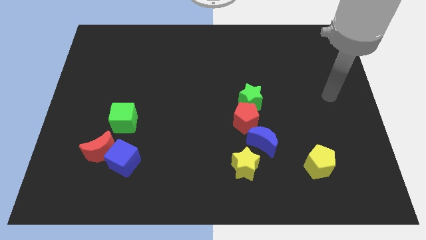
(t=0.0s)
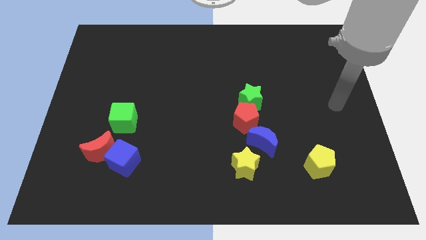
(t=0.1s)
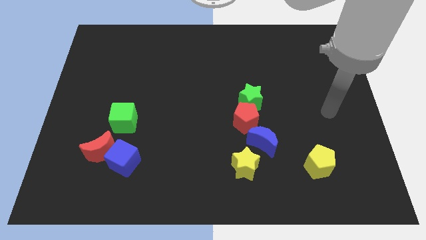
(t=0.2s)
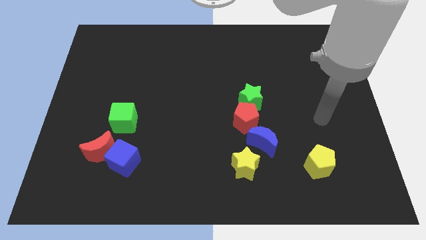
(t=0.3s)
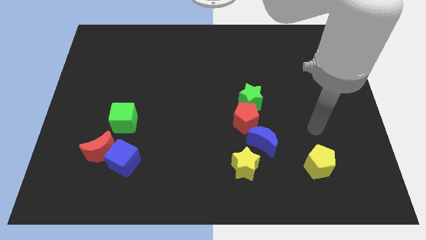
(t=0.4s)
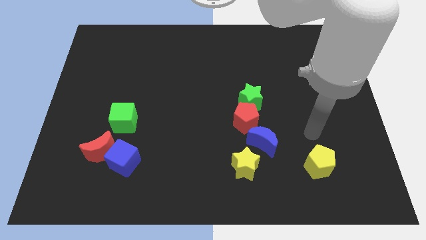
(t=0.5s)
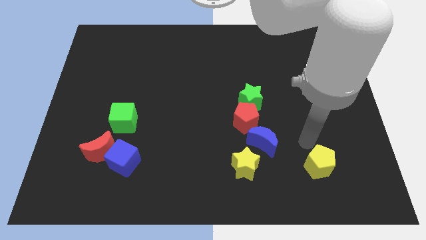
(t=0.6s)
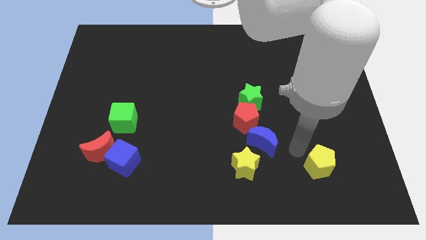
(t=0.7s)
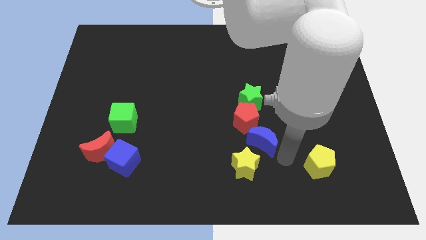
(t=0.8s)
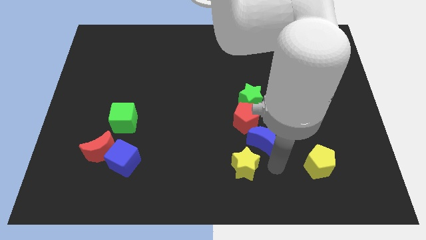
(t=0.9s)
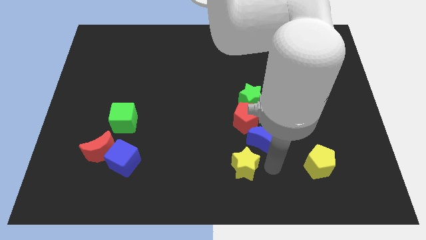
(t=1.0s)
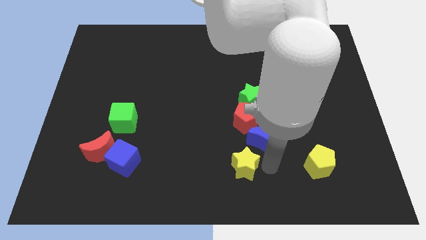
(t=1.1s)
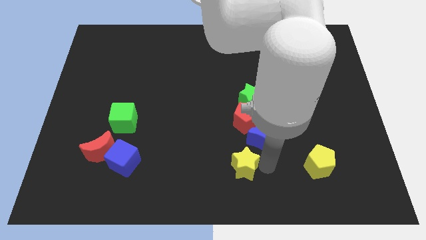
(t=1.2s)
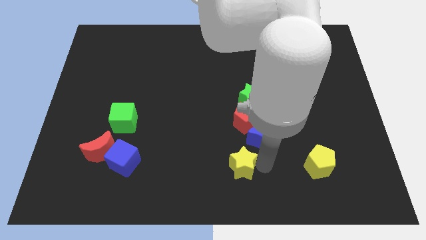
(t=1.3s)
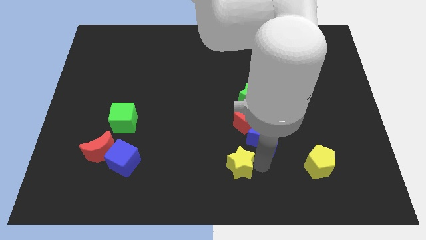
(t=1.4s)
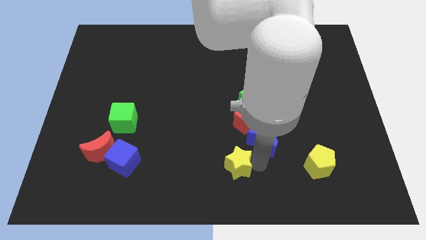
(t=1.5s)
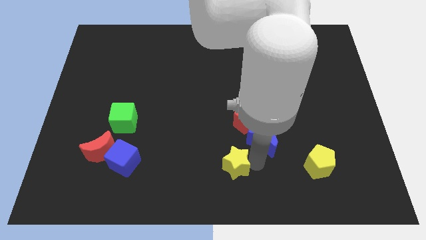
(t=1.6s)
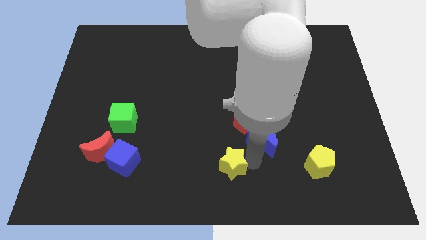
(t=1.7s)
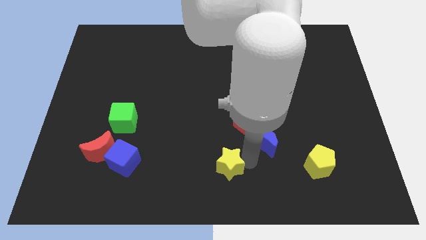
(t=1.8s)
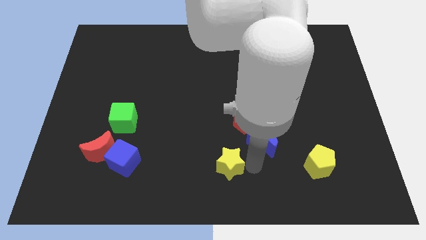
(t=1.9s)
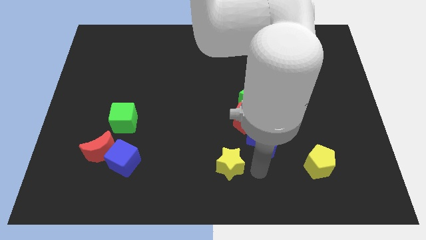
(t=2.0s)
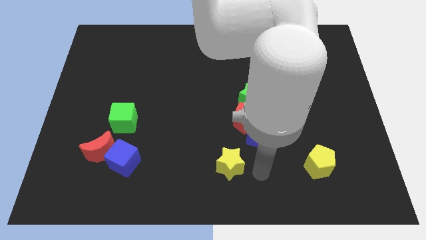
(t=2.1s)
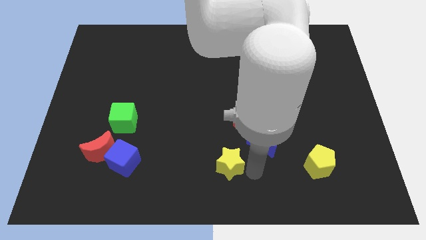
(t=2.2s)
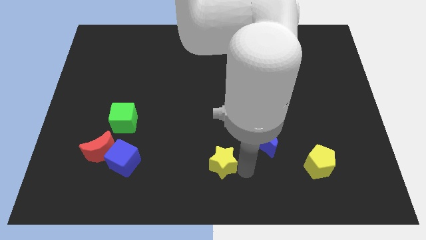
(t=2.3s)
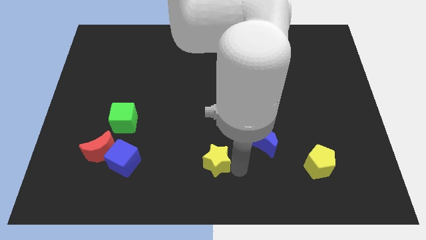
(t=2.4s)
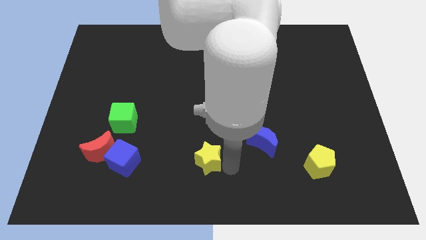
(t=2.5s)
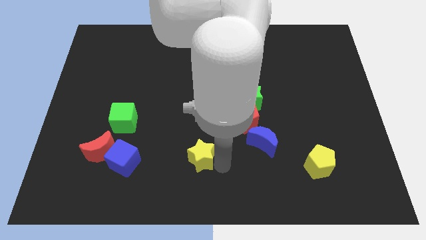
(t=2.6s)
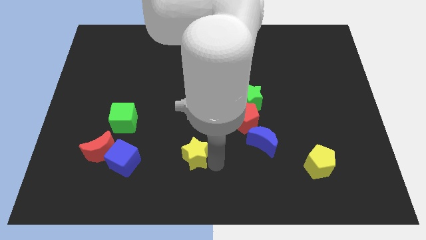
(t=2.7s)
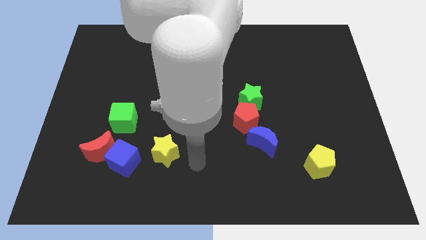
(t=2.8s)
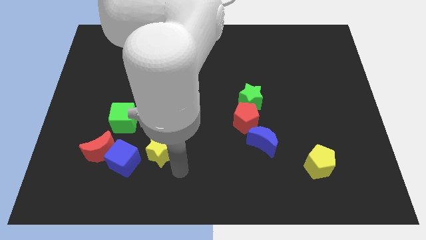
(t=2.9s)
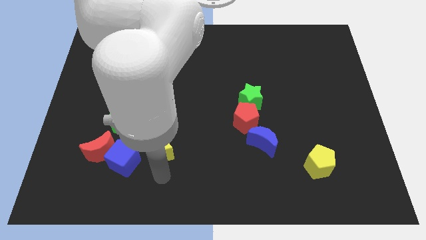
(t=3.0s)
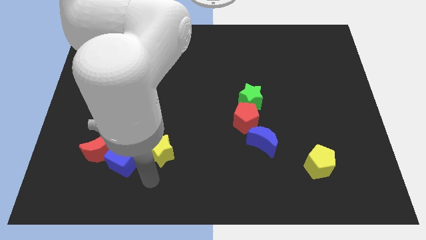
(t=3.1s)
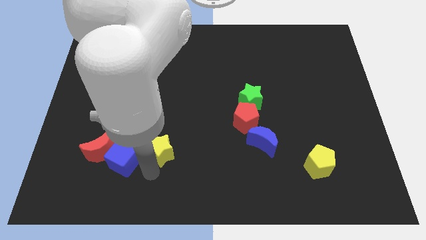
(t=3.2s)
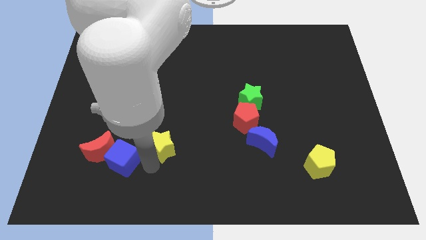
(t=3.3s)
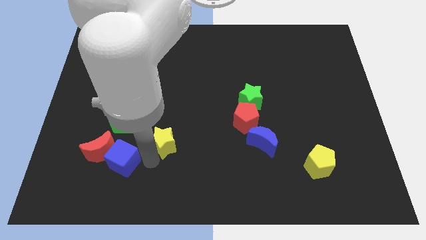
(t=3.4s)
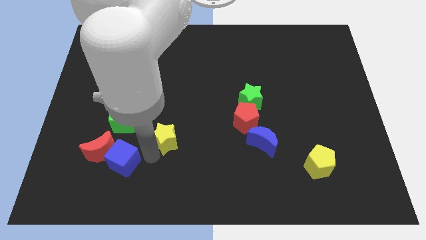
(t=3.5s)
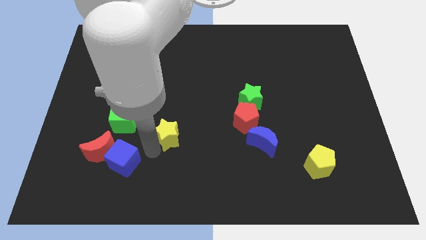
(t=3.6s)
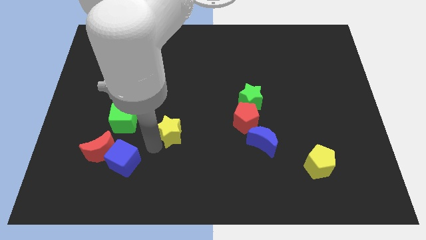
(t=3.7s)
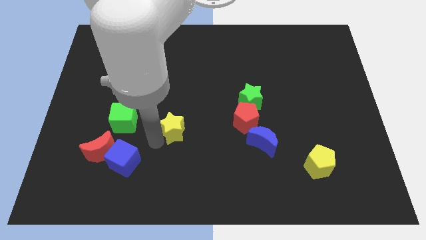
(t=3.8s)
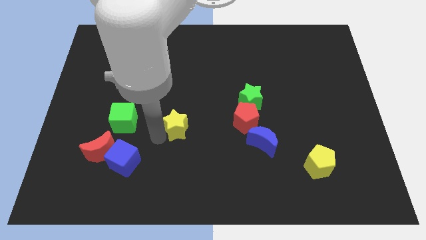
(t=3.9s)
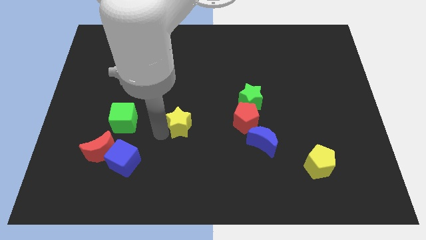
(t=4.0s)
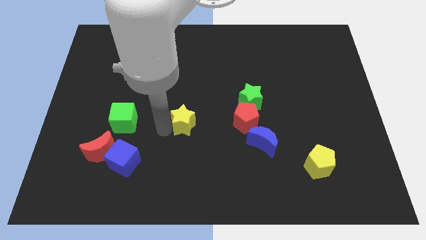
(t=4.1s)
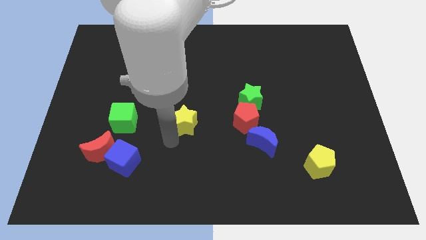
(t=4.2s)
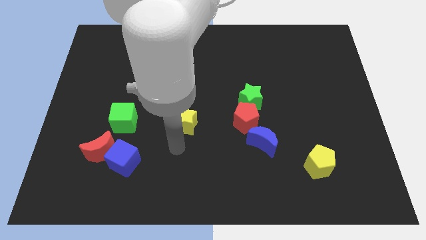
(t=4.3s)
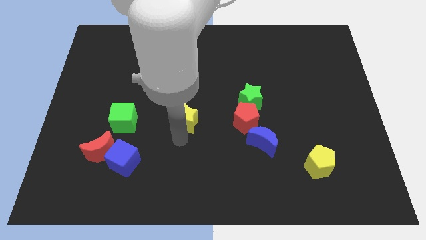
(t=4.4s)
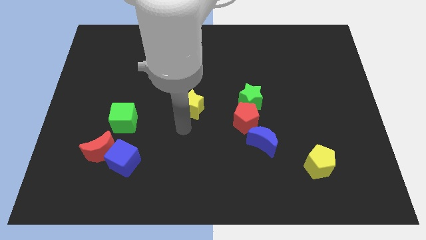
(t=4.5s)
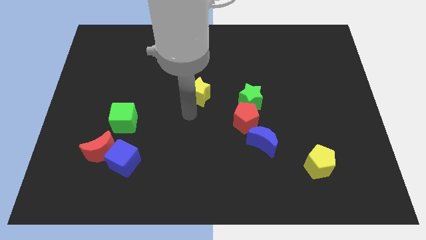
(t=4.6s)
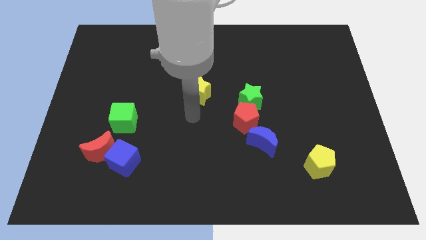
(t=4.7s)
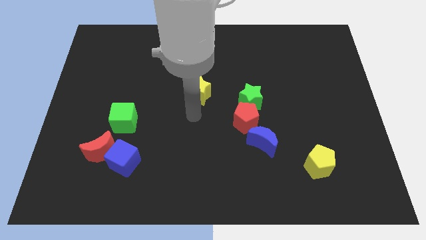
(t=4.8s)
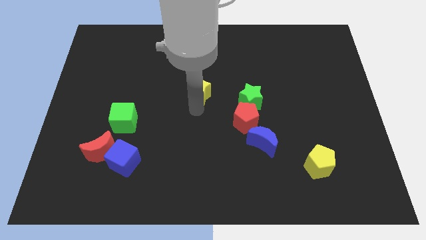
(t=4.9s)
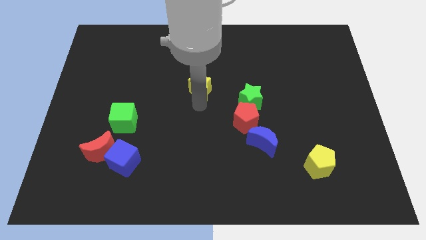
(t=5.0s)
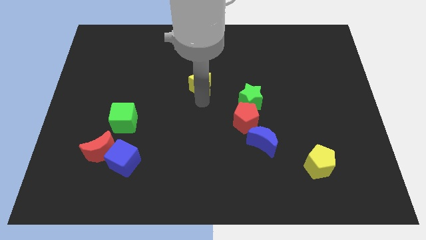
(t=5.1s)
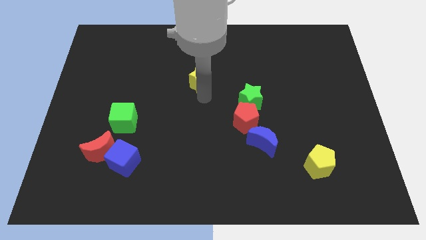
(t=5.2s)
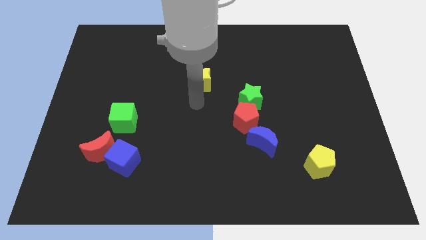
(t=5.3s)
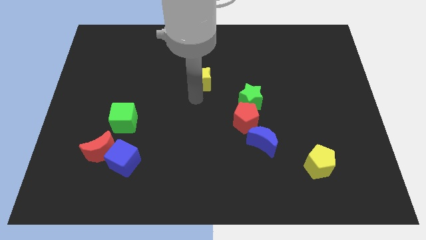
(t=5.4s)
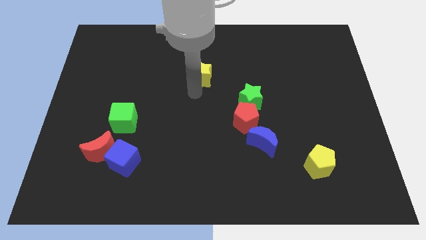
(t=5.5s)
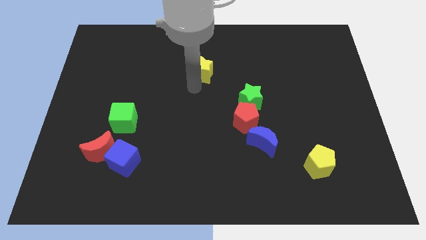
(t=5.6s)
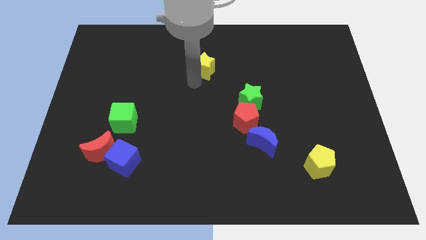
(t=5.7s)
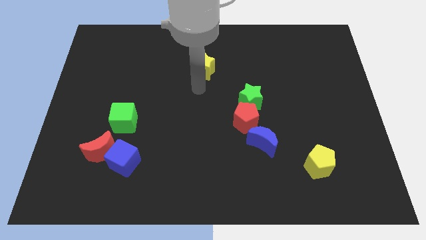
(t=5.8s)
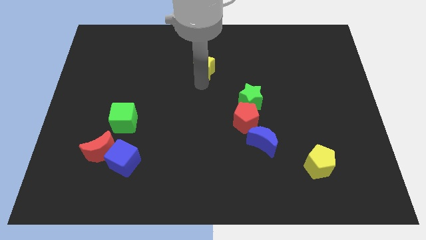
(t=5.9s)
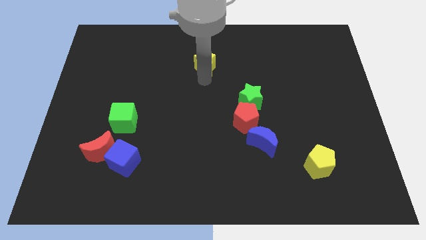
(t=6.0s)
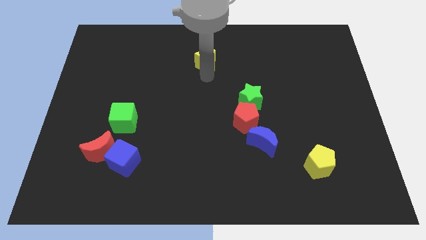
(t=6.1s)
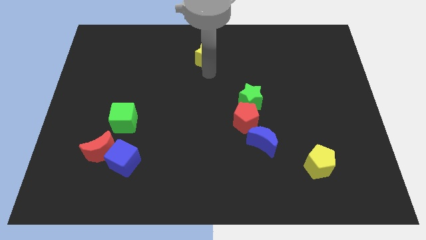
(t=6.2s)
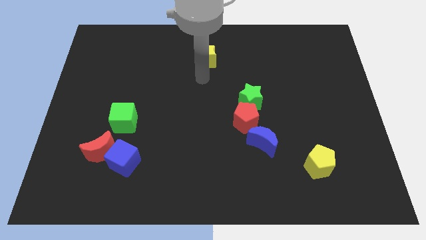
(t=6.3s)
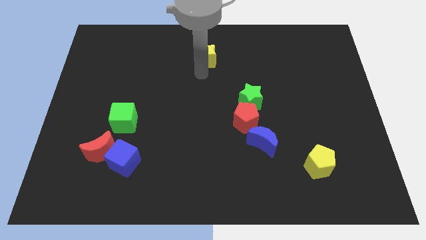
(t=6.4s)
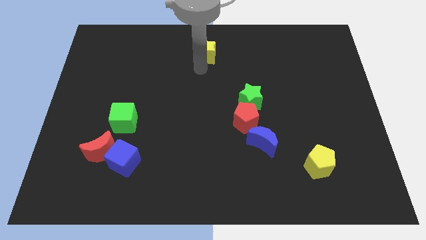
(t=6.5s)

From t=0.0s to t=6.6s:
slide the yellow star to the towards your base
